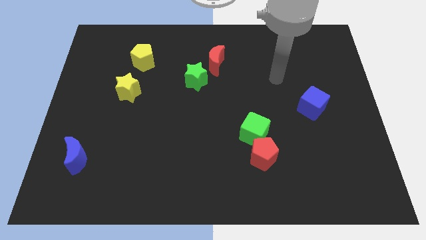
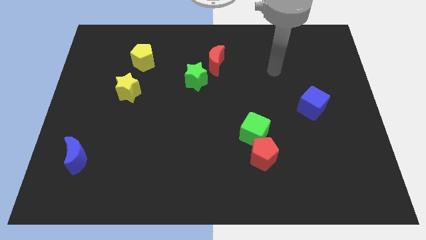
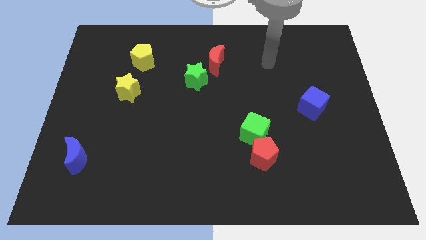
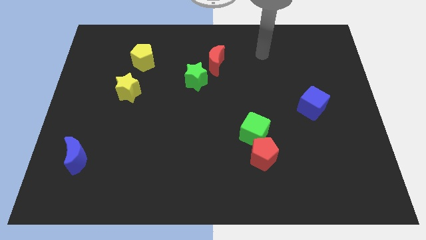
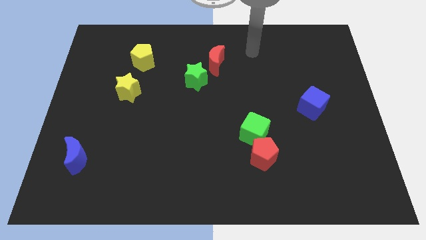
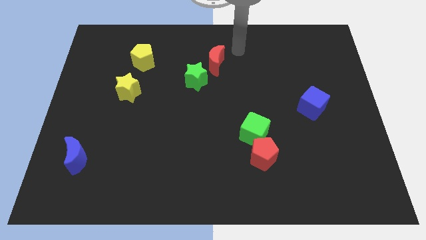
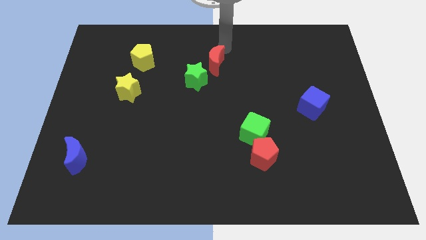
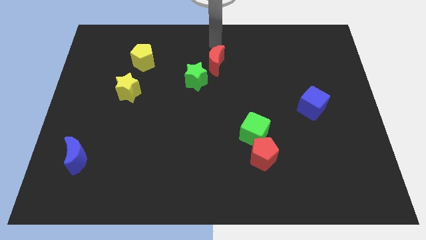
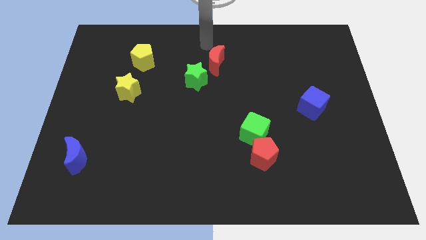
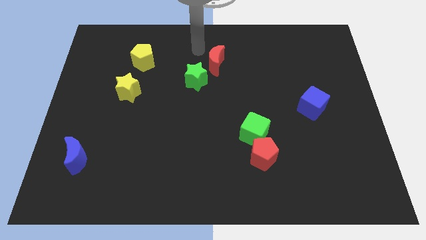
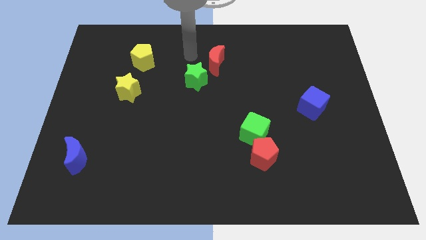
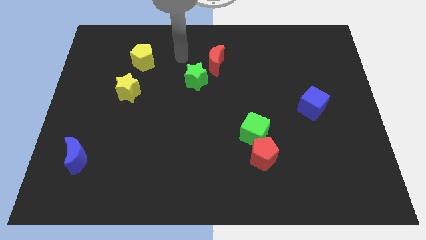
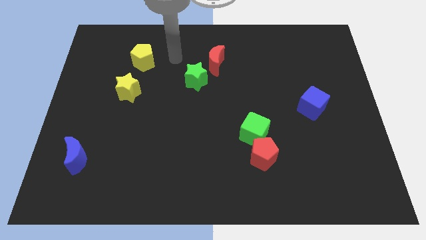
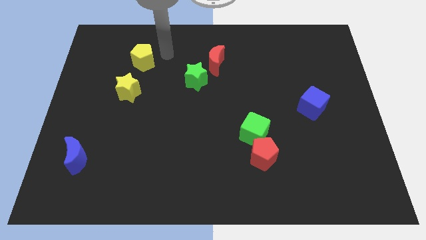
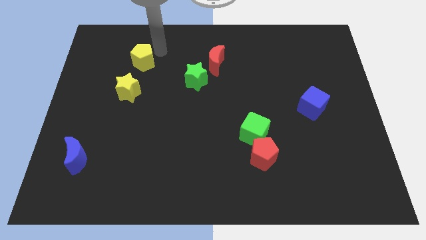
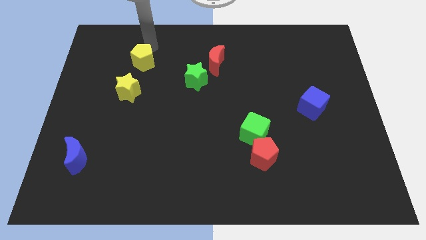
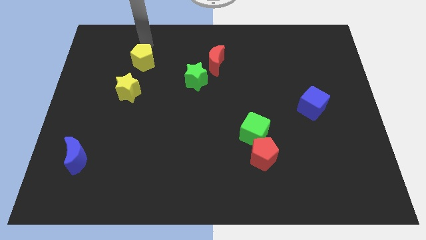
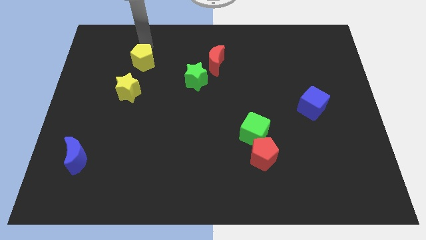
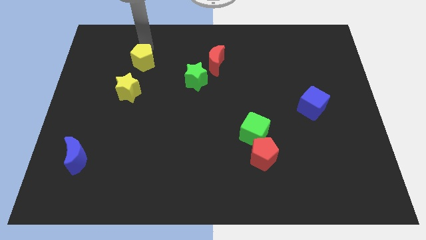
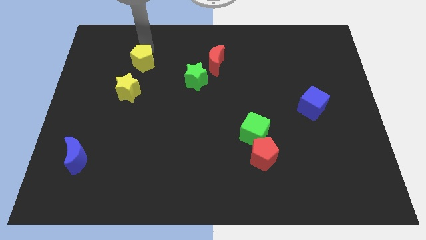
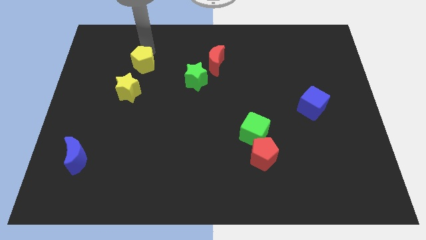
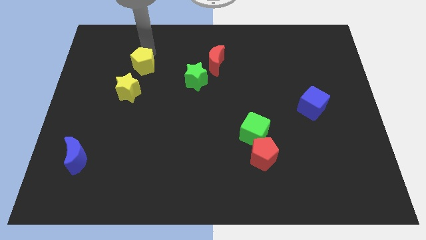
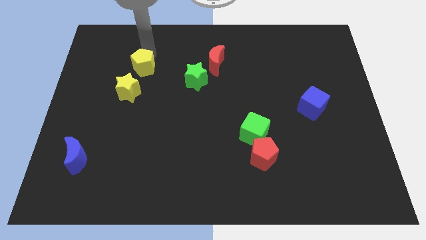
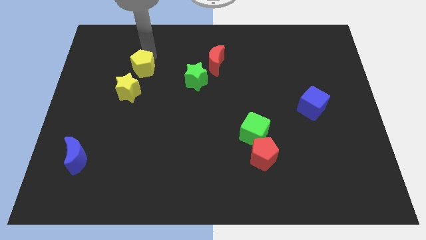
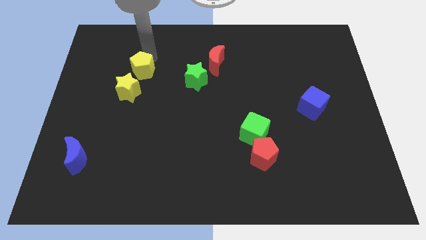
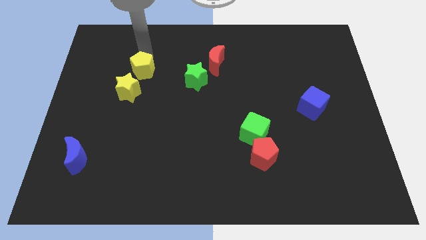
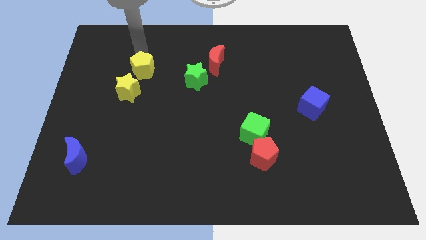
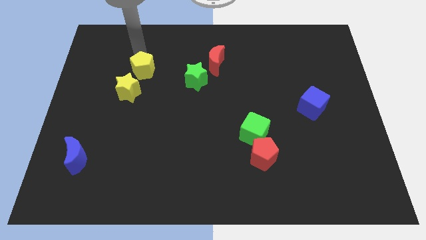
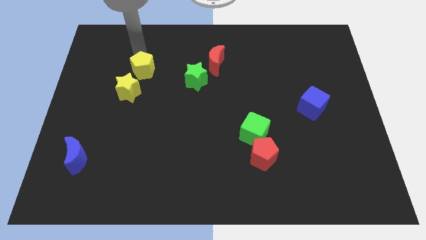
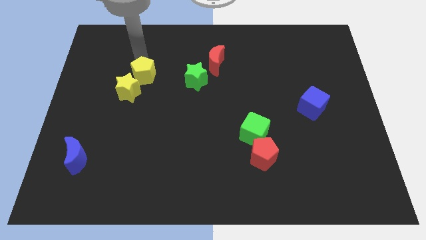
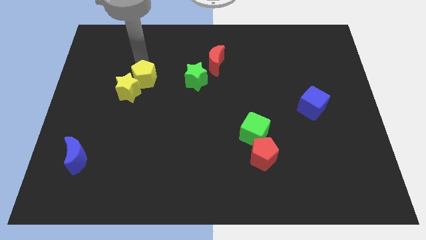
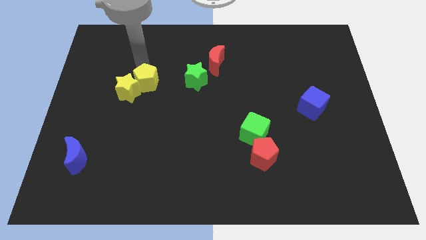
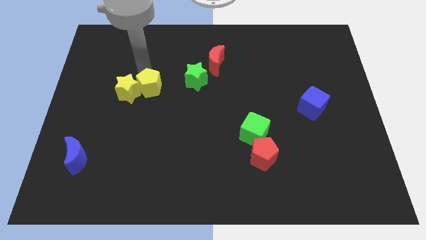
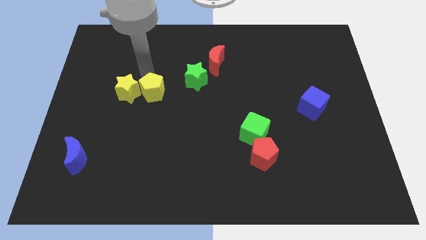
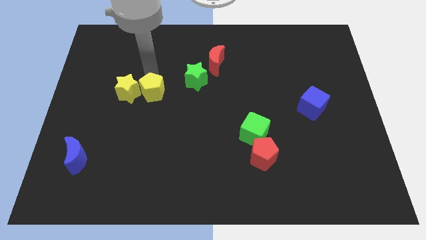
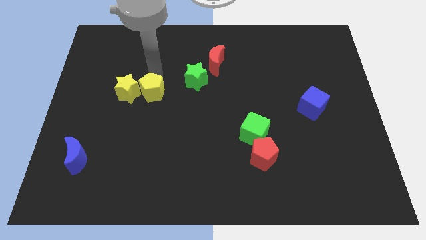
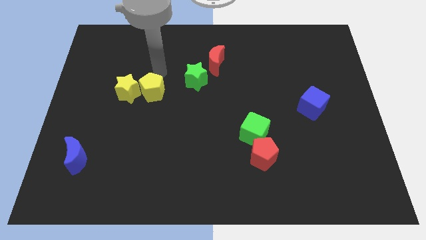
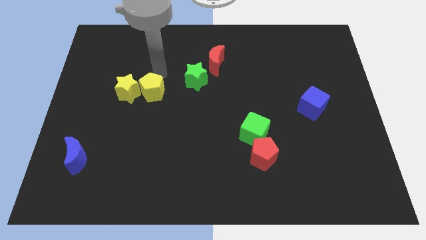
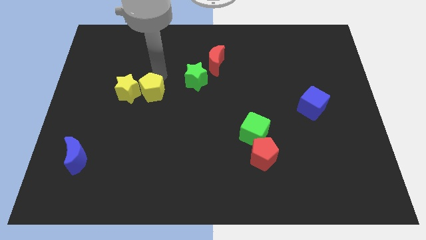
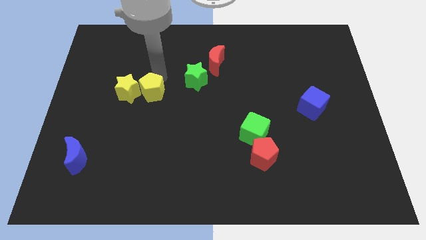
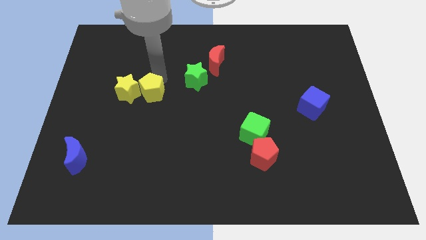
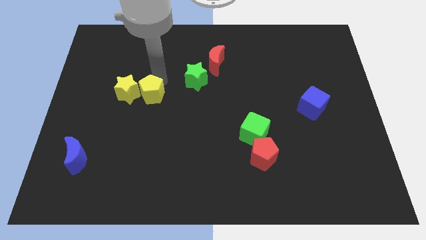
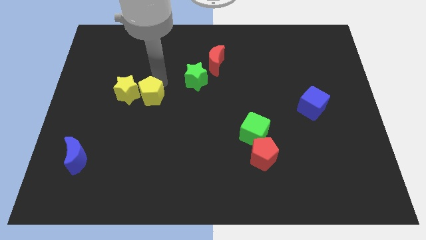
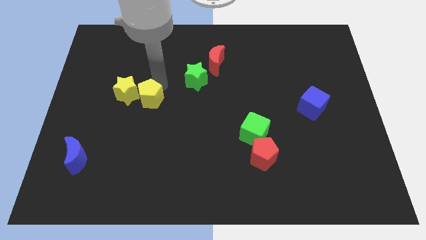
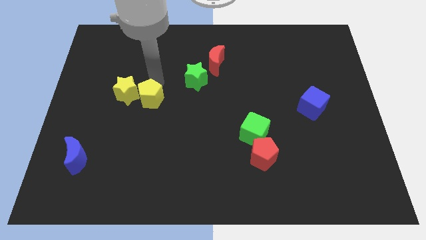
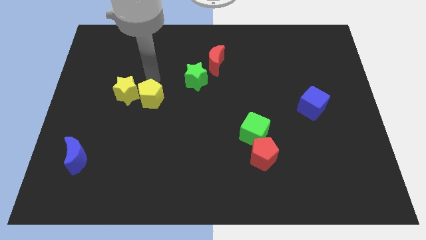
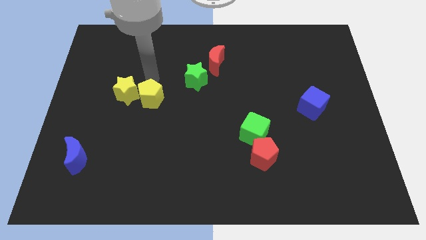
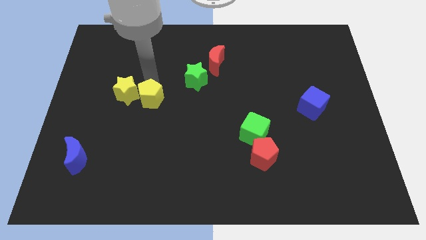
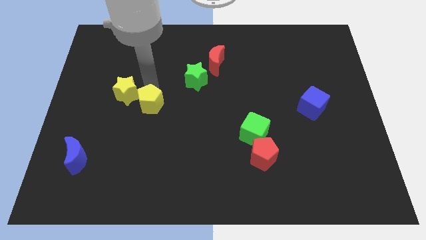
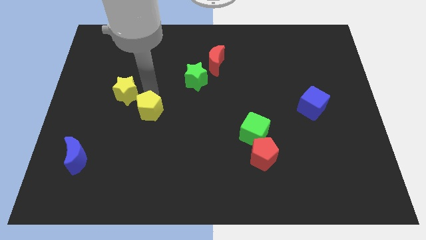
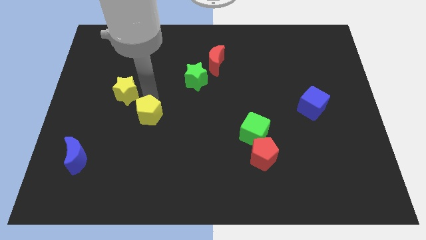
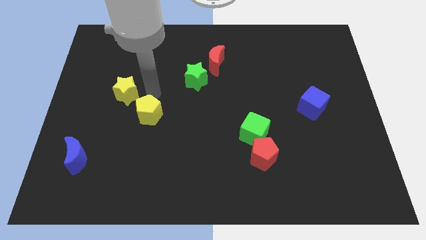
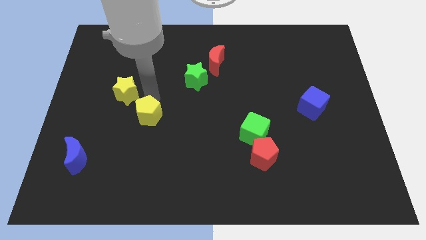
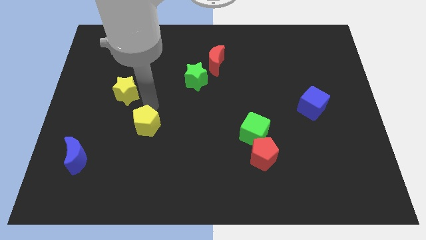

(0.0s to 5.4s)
slide the yellow pentagon downwards

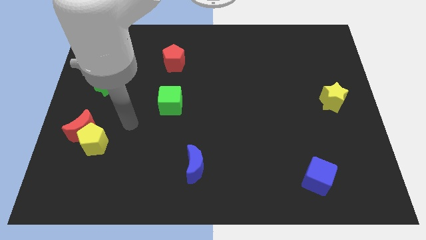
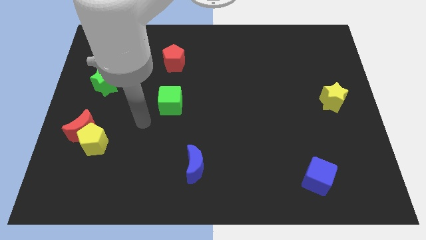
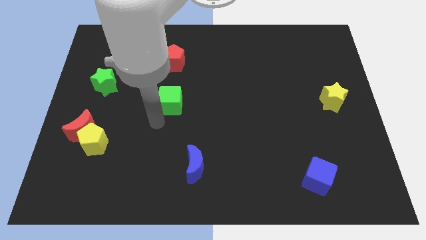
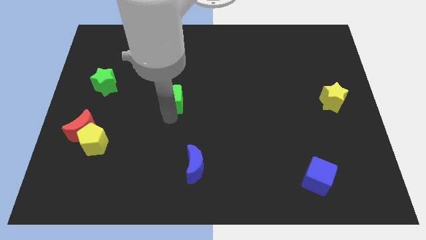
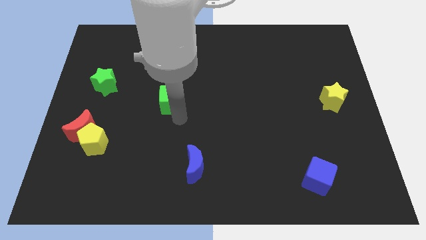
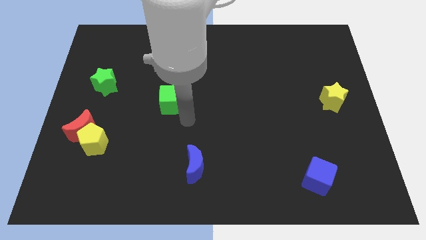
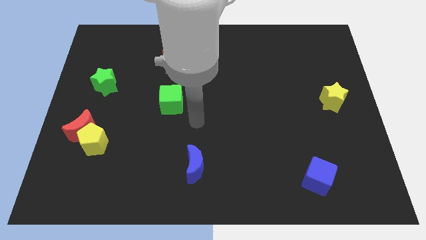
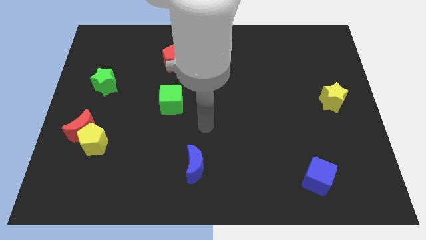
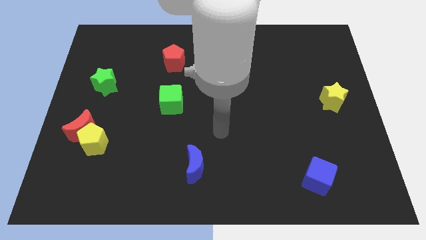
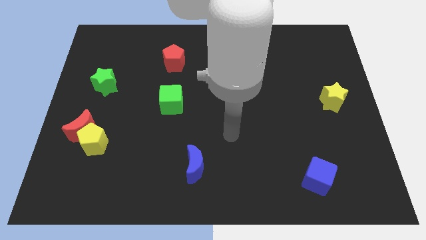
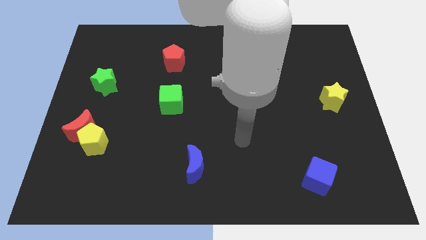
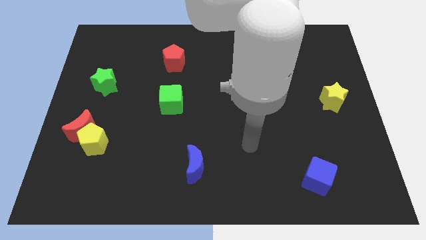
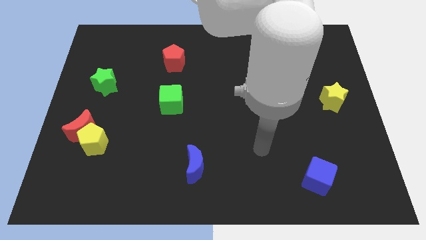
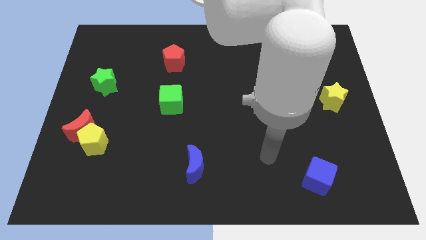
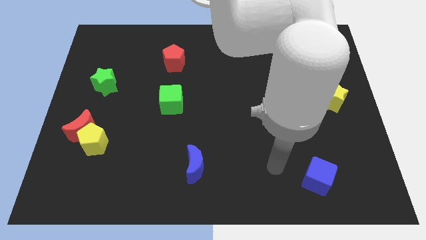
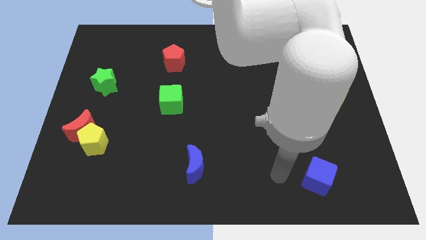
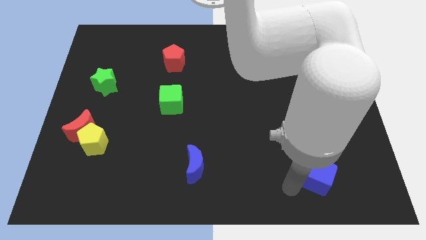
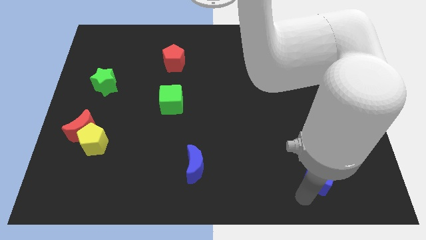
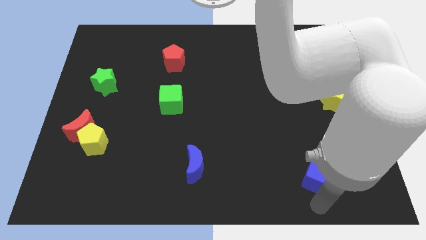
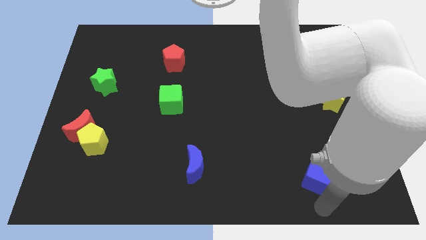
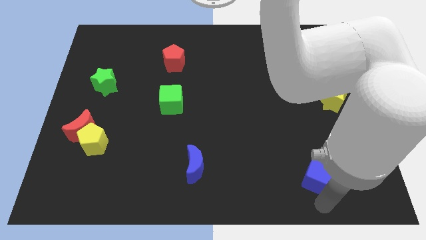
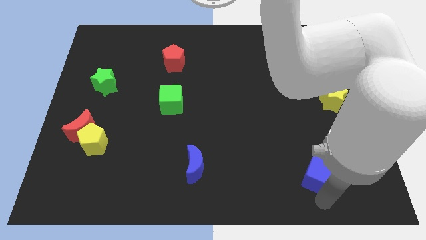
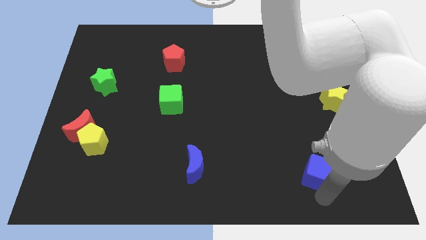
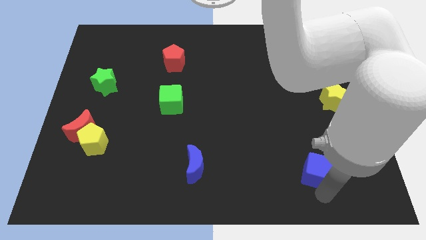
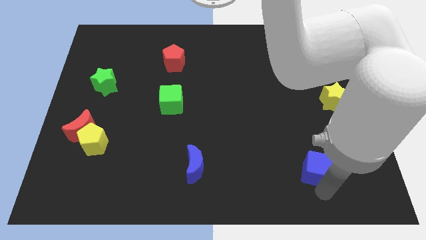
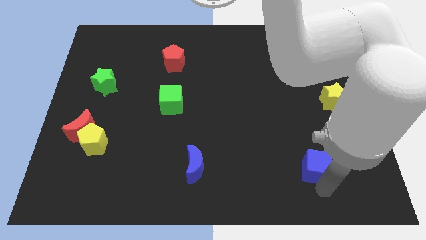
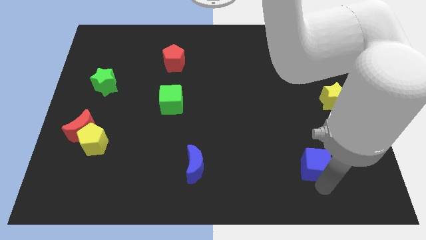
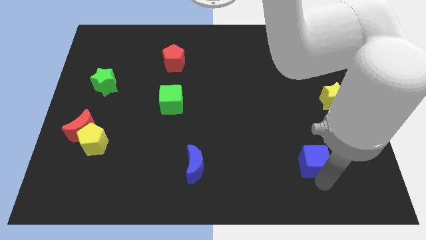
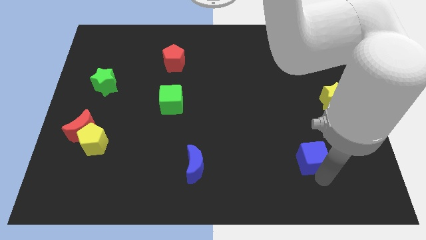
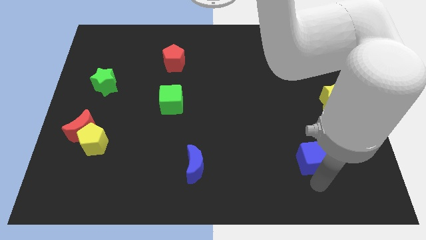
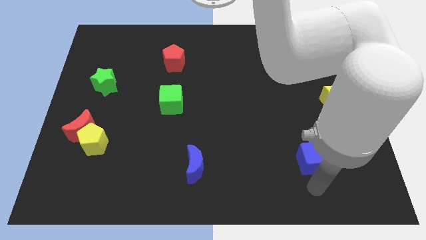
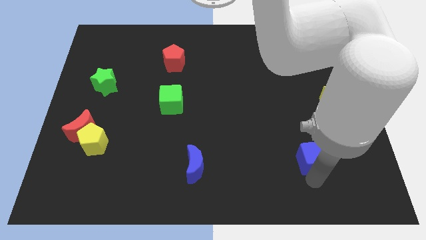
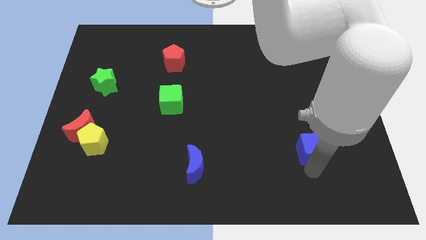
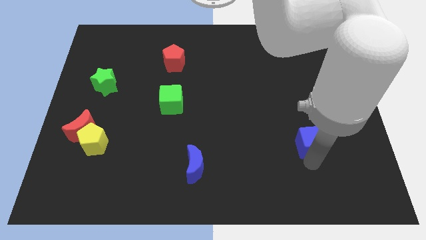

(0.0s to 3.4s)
move the blue cube upwards a bit
